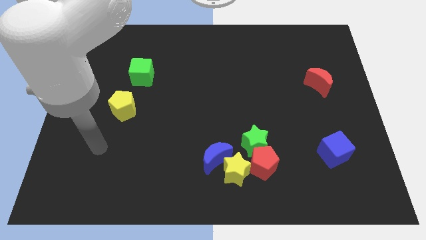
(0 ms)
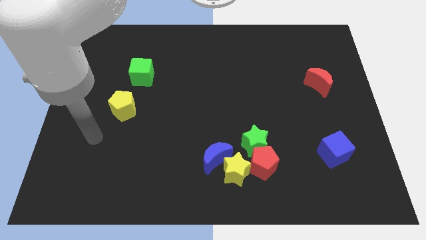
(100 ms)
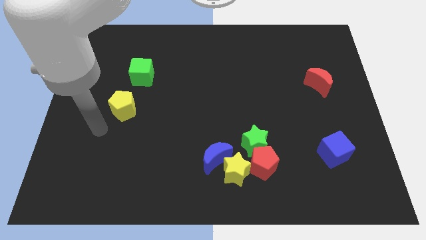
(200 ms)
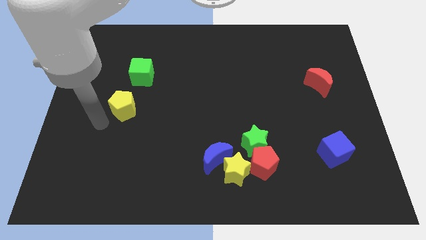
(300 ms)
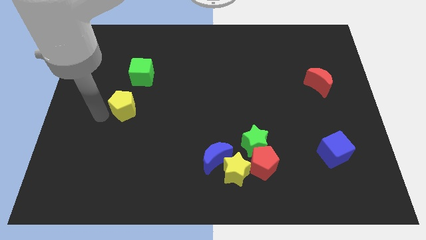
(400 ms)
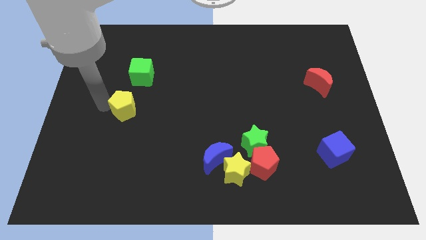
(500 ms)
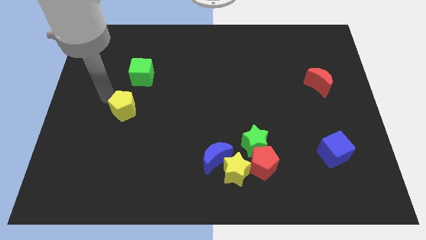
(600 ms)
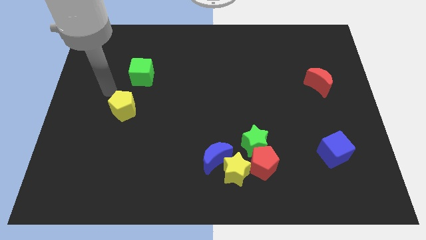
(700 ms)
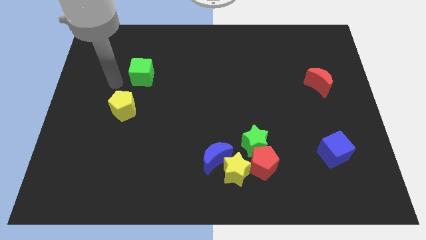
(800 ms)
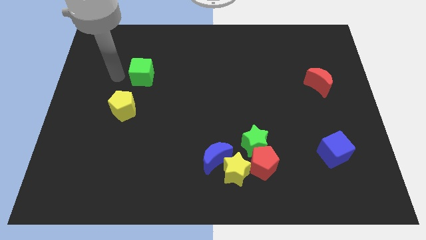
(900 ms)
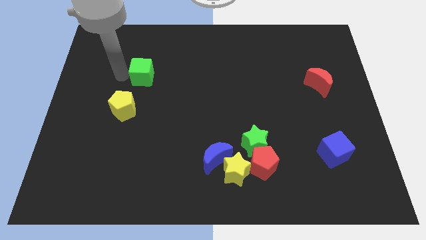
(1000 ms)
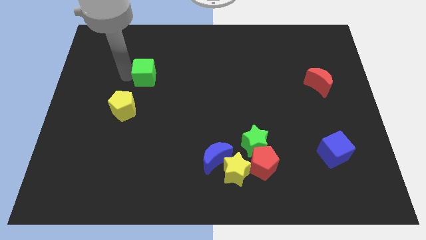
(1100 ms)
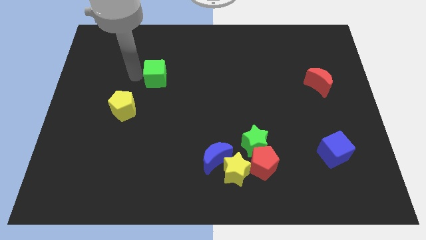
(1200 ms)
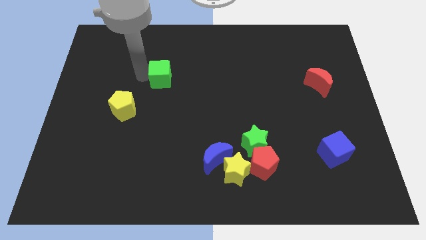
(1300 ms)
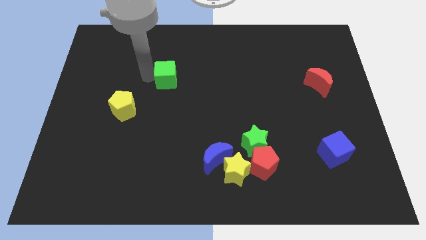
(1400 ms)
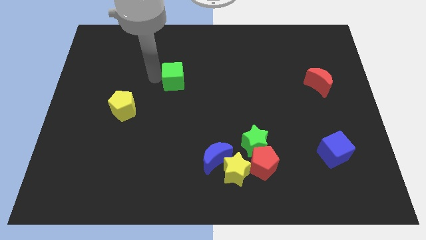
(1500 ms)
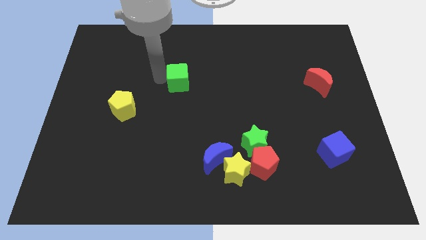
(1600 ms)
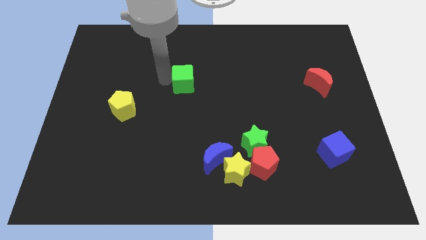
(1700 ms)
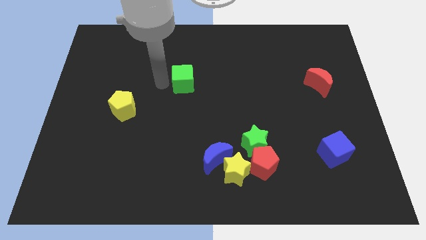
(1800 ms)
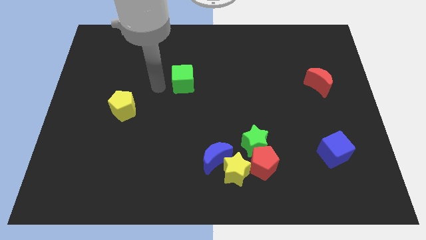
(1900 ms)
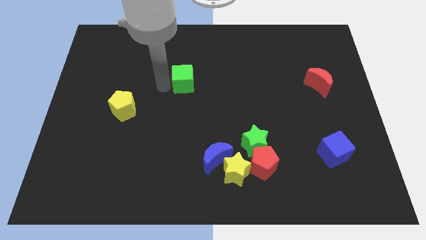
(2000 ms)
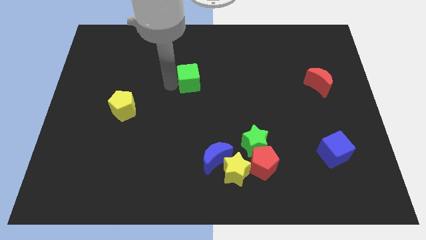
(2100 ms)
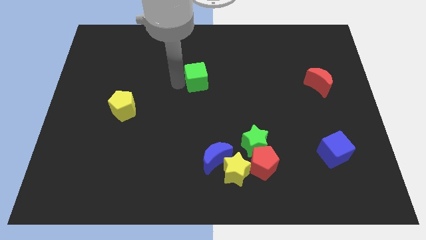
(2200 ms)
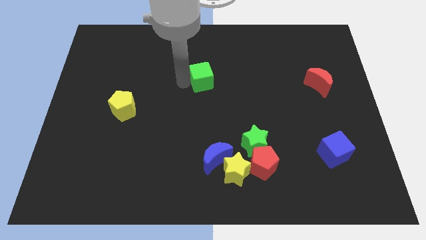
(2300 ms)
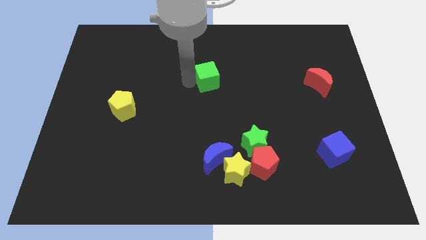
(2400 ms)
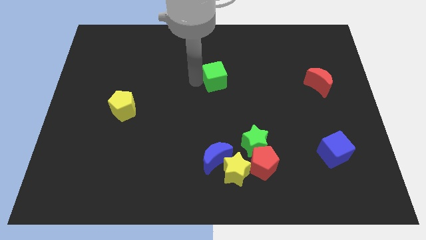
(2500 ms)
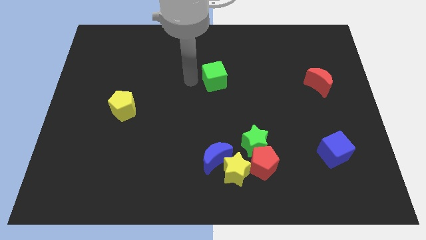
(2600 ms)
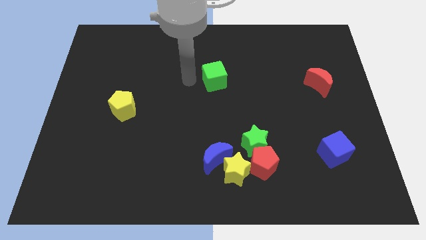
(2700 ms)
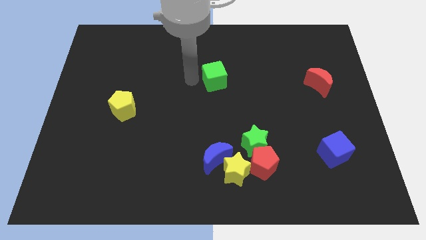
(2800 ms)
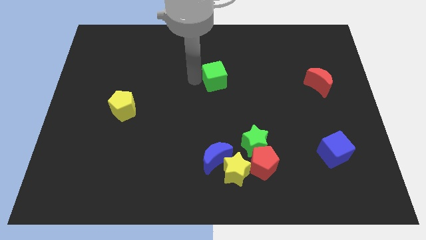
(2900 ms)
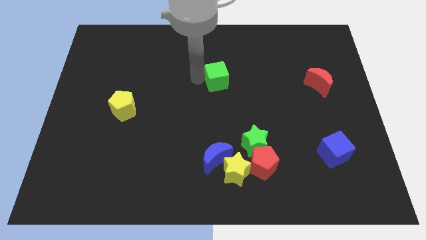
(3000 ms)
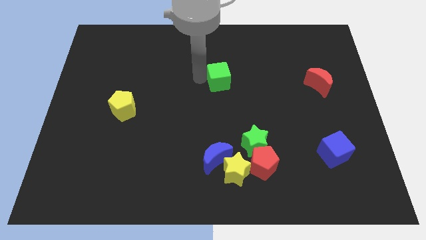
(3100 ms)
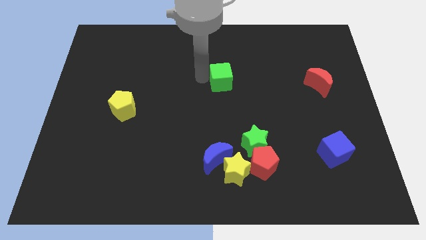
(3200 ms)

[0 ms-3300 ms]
move the green cube right

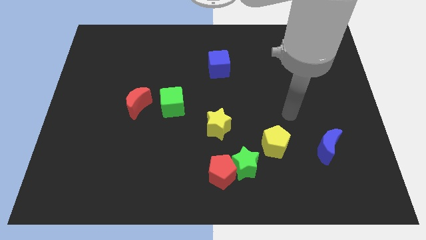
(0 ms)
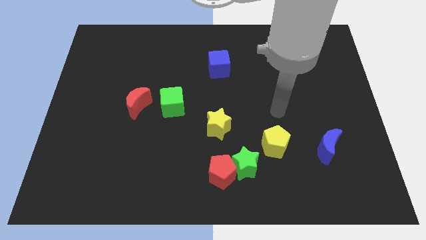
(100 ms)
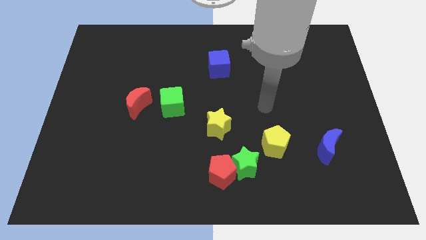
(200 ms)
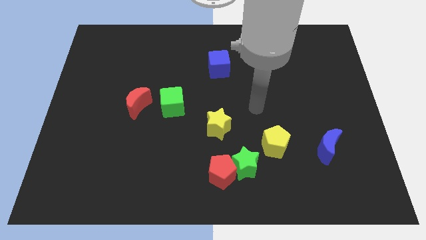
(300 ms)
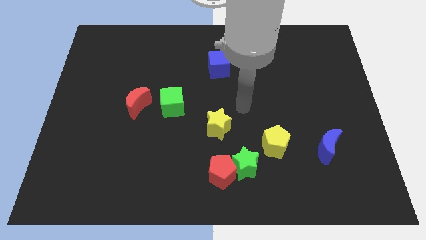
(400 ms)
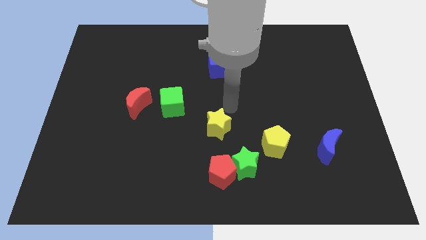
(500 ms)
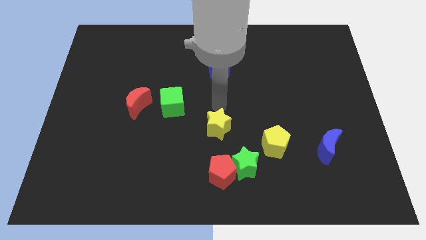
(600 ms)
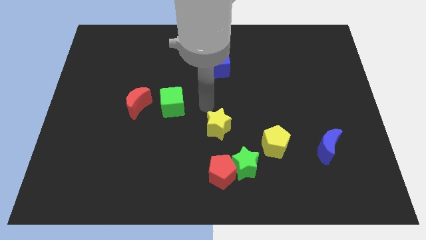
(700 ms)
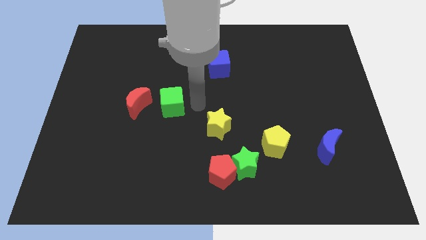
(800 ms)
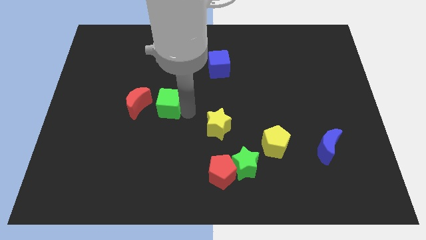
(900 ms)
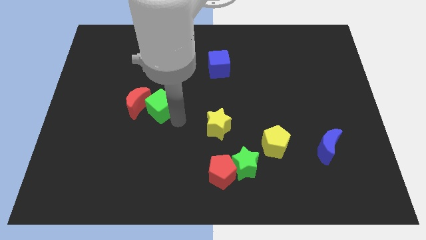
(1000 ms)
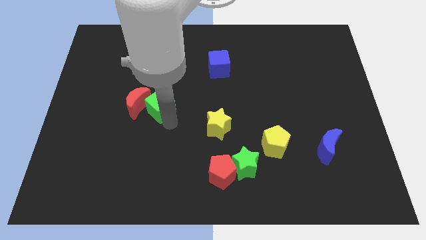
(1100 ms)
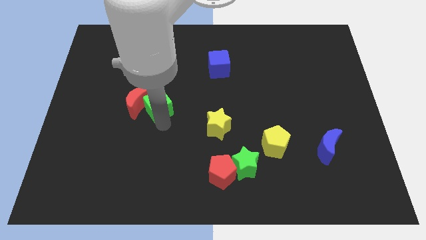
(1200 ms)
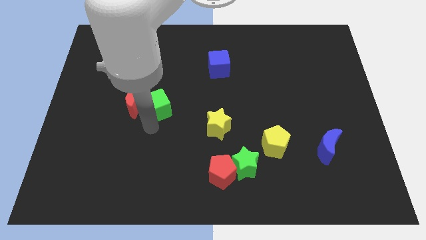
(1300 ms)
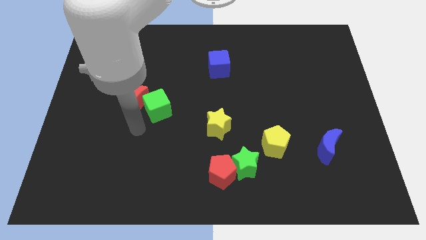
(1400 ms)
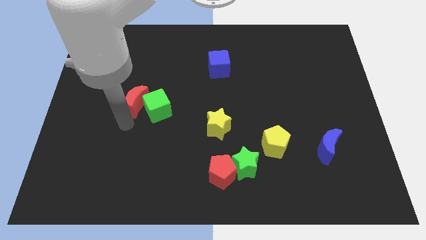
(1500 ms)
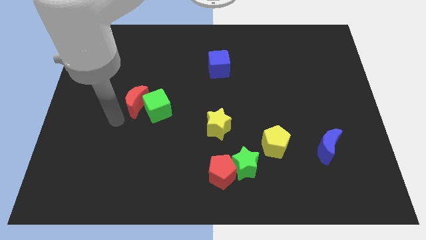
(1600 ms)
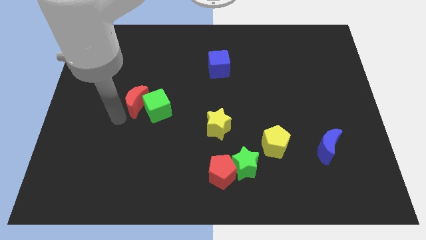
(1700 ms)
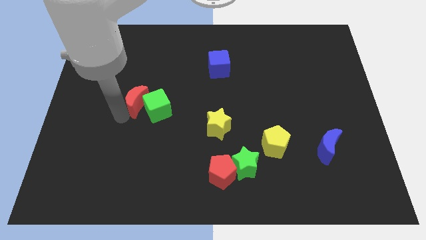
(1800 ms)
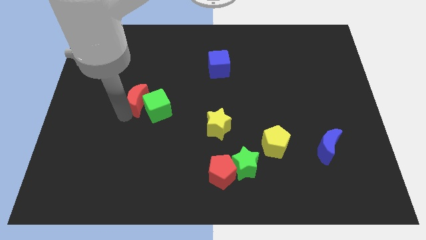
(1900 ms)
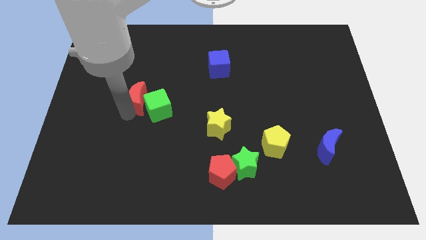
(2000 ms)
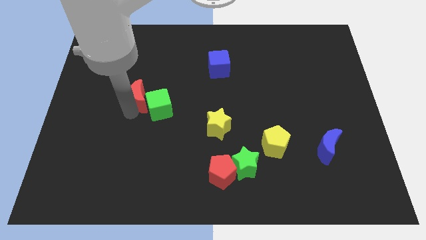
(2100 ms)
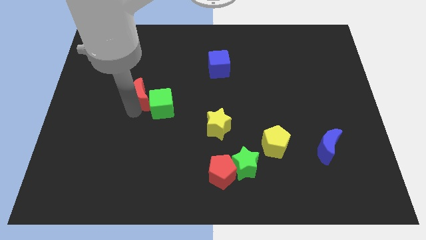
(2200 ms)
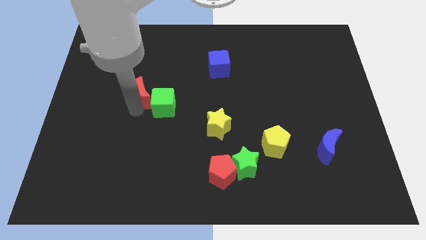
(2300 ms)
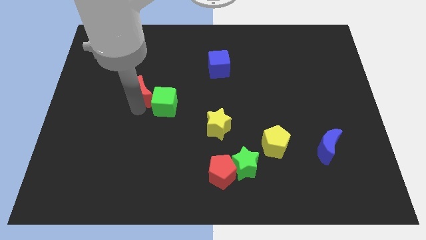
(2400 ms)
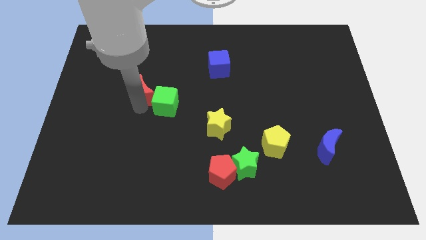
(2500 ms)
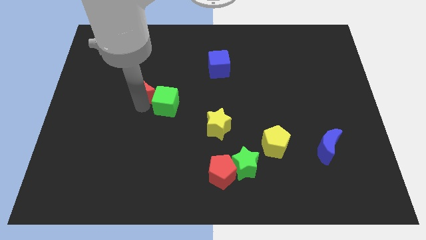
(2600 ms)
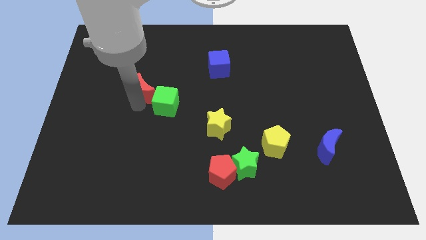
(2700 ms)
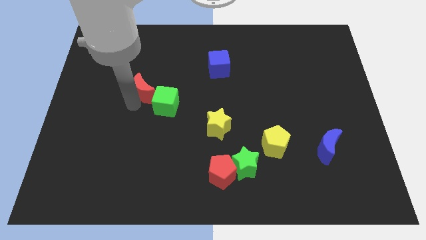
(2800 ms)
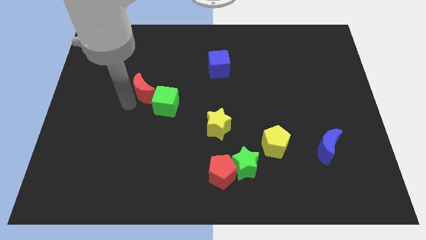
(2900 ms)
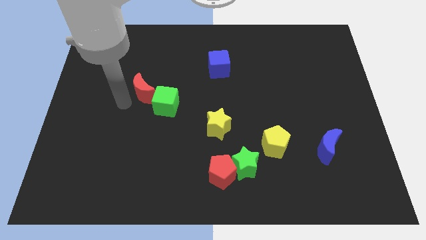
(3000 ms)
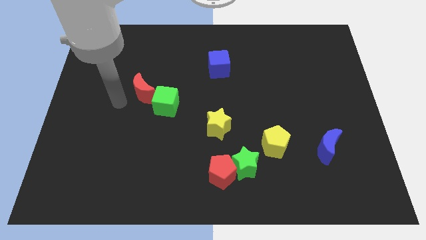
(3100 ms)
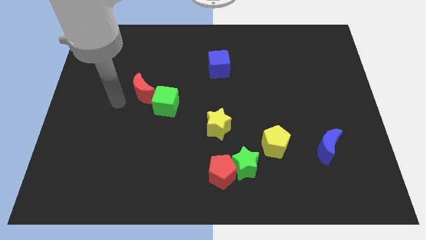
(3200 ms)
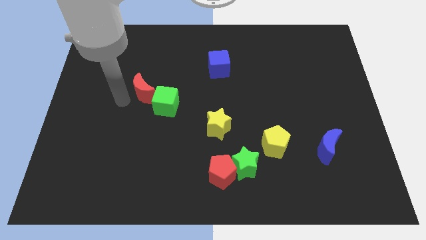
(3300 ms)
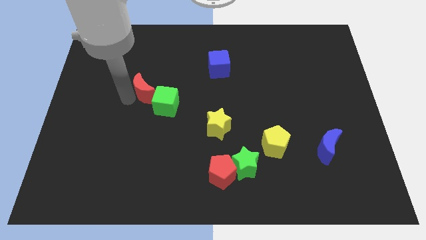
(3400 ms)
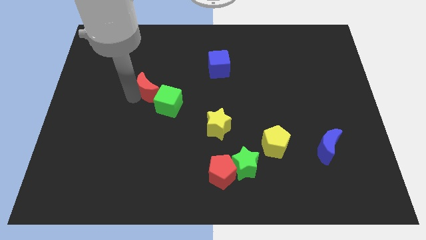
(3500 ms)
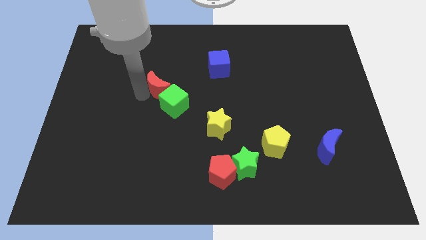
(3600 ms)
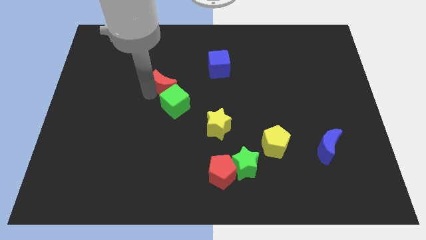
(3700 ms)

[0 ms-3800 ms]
slide the red moon upwards and then right somewhat

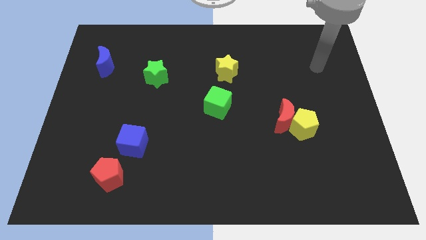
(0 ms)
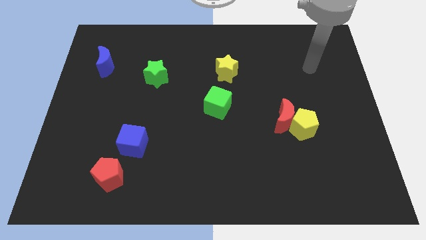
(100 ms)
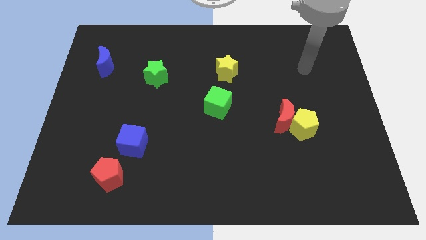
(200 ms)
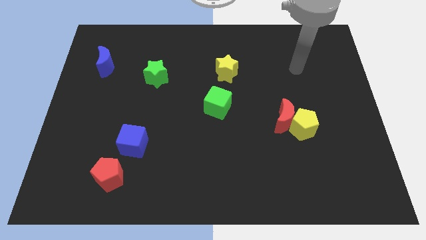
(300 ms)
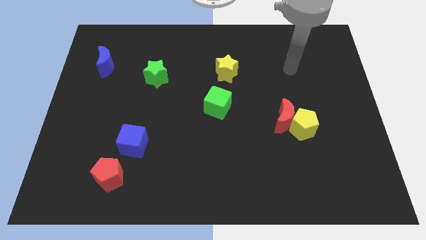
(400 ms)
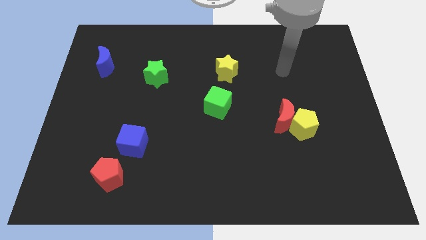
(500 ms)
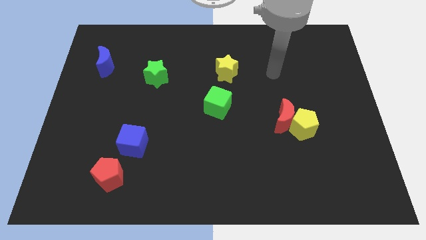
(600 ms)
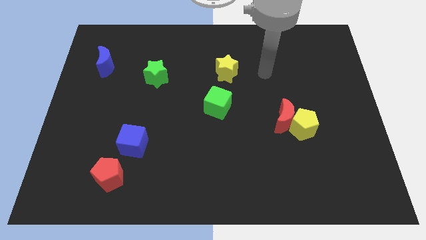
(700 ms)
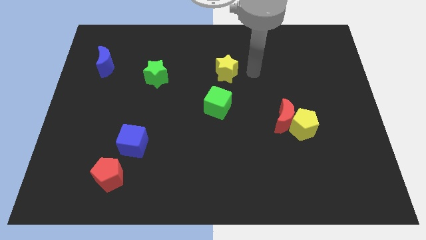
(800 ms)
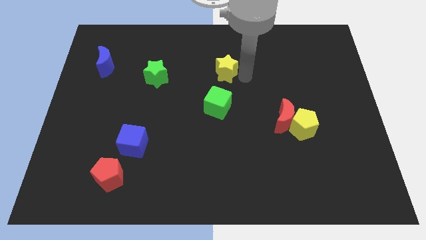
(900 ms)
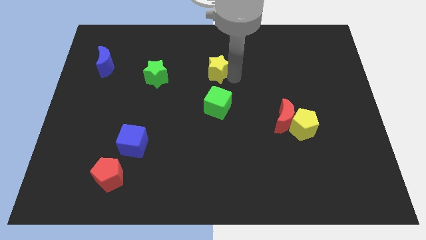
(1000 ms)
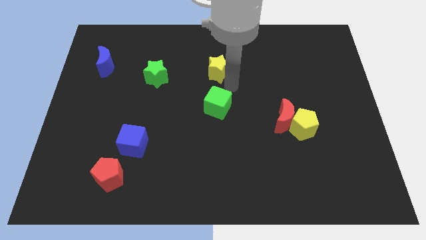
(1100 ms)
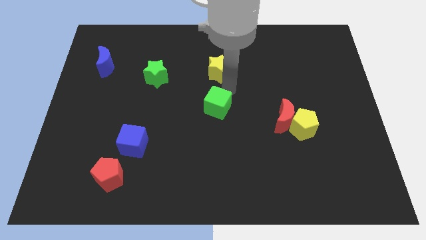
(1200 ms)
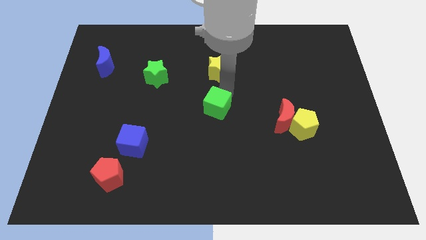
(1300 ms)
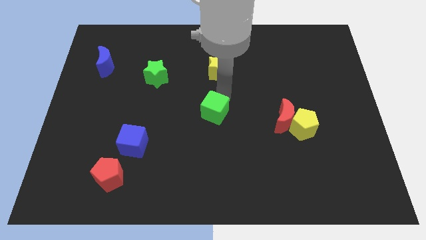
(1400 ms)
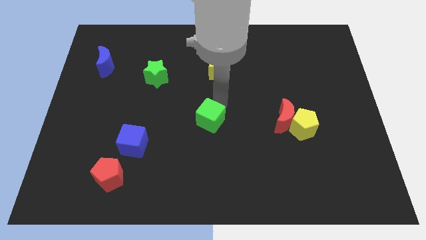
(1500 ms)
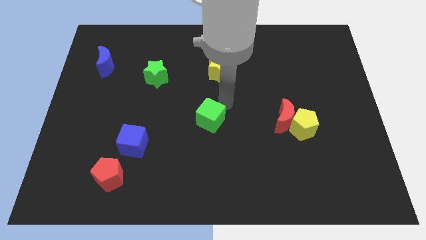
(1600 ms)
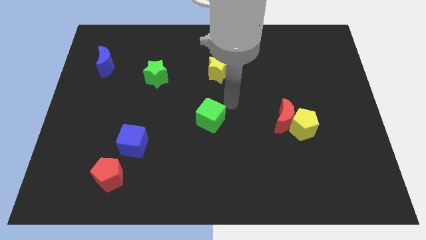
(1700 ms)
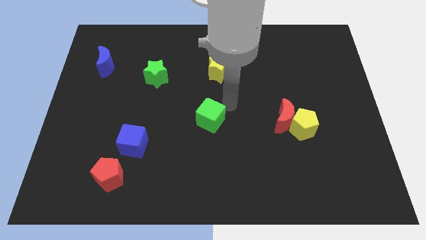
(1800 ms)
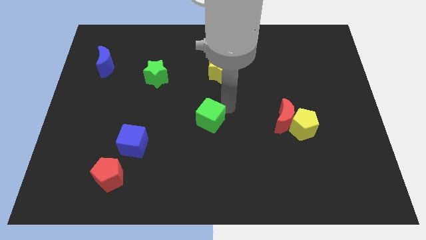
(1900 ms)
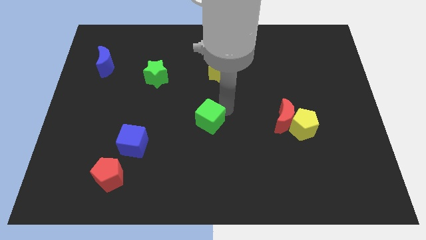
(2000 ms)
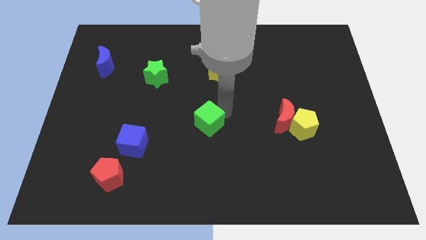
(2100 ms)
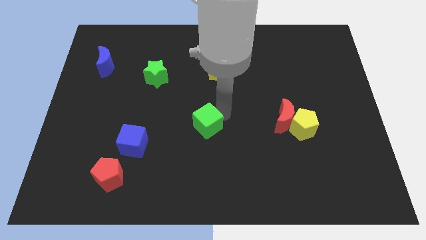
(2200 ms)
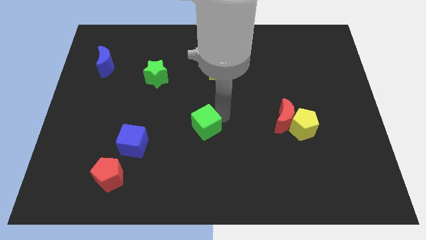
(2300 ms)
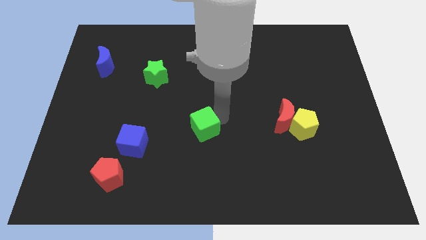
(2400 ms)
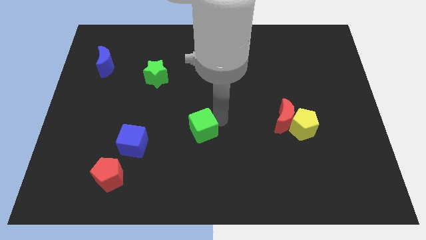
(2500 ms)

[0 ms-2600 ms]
push the green cube a little bit down and to the left
